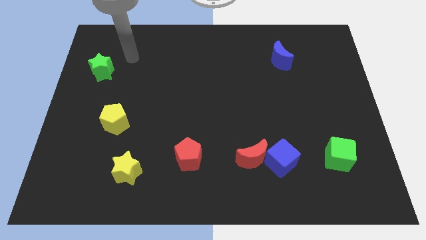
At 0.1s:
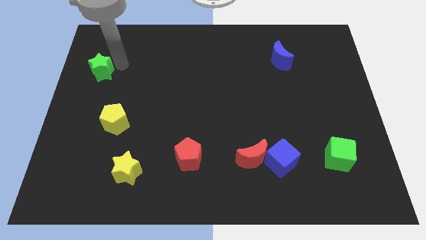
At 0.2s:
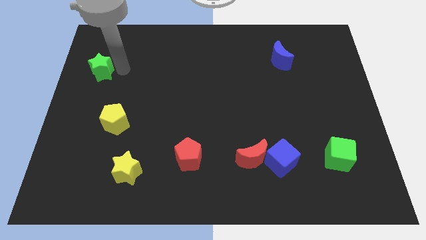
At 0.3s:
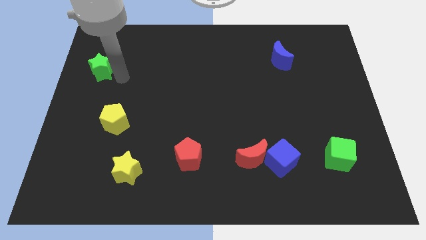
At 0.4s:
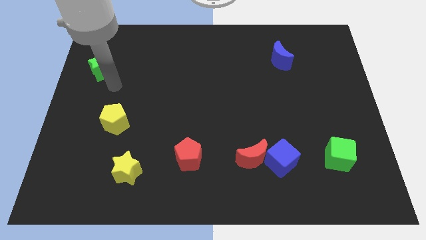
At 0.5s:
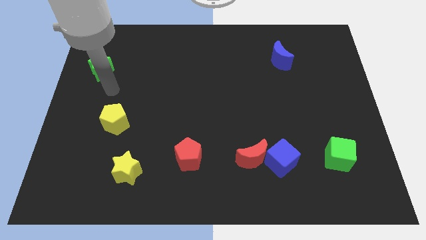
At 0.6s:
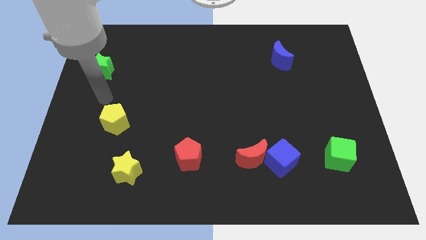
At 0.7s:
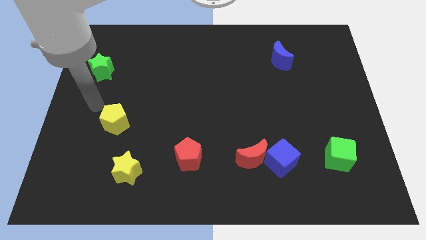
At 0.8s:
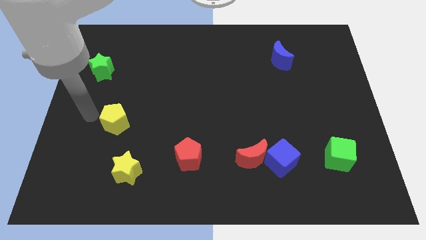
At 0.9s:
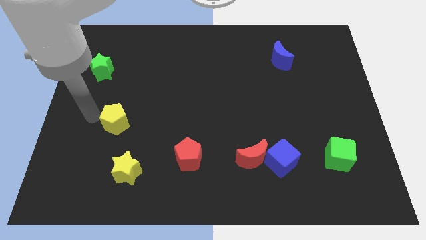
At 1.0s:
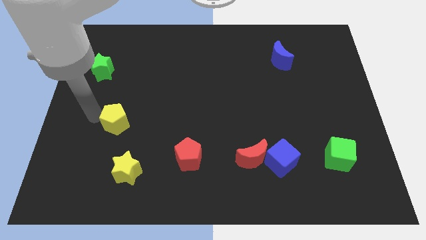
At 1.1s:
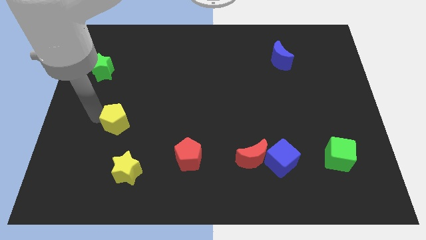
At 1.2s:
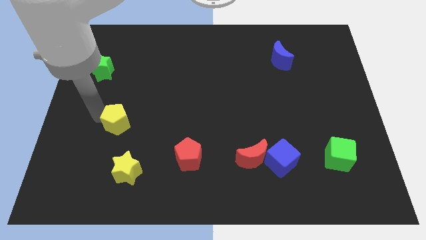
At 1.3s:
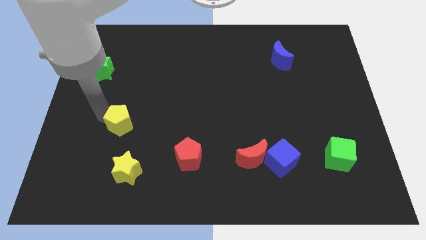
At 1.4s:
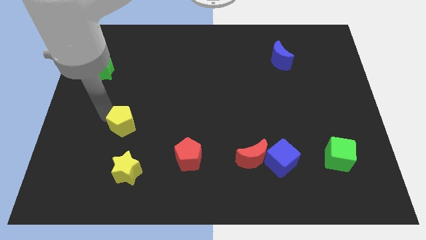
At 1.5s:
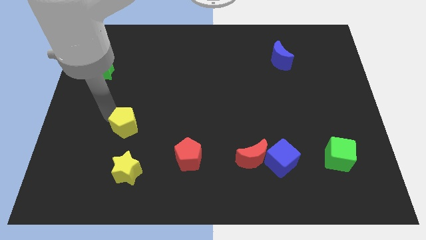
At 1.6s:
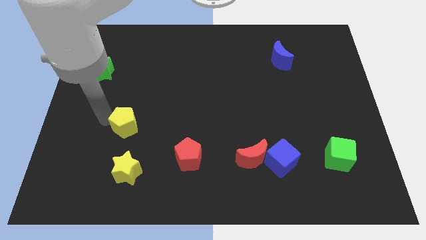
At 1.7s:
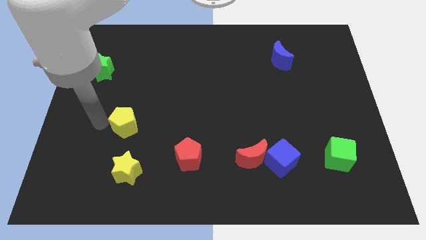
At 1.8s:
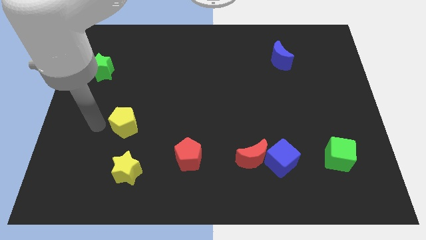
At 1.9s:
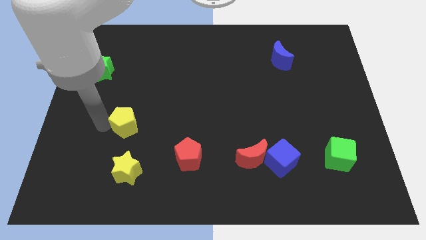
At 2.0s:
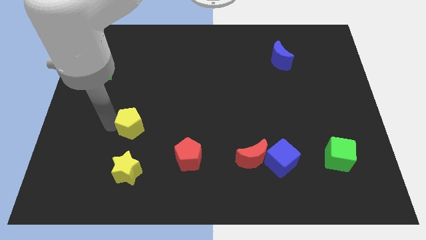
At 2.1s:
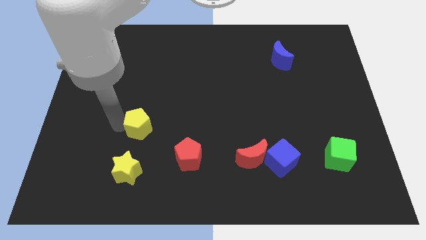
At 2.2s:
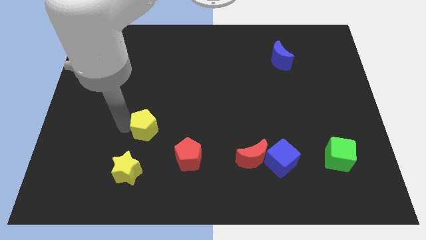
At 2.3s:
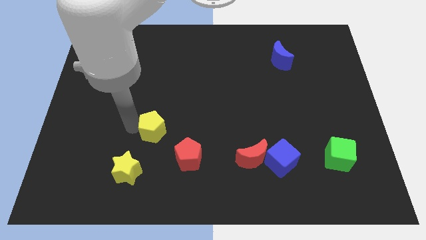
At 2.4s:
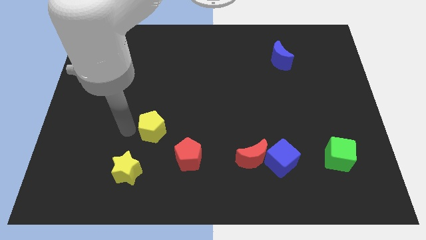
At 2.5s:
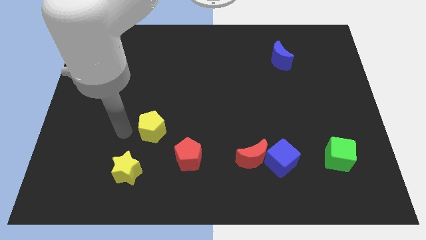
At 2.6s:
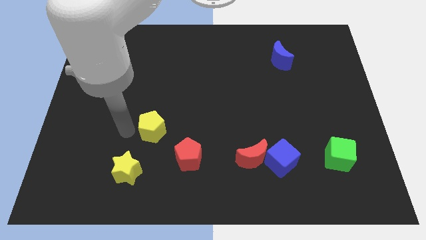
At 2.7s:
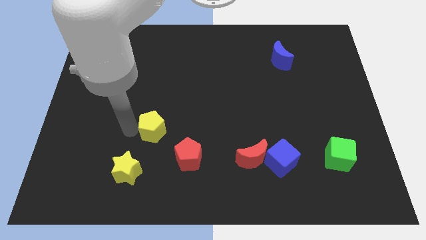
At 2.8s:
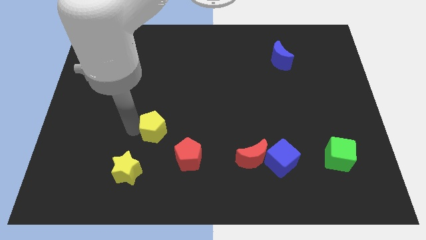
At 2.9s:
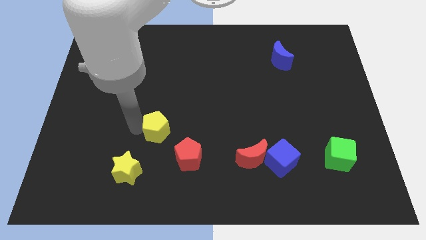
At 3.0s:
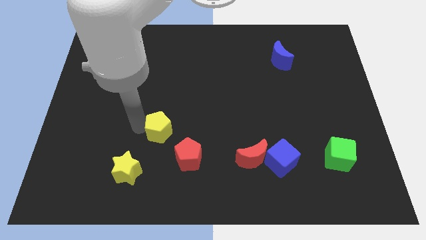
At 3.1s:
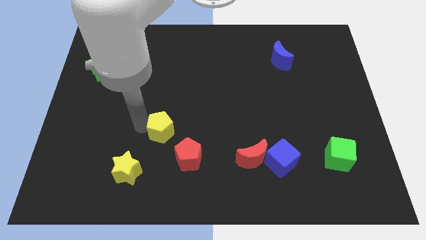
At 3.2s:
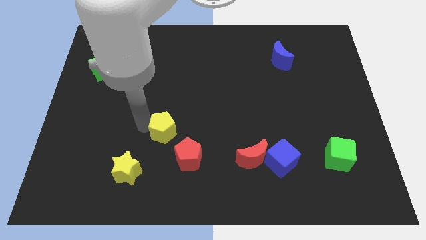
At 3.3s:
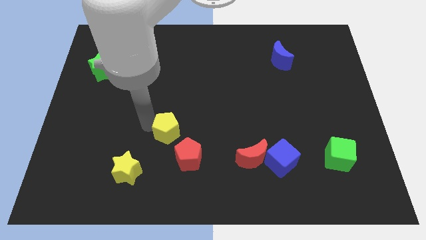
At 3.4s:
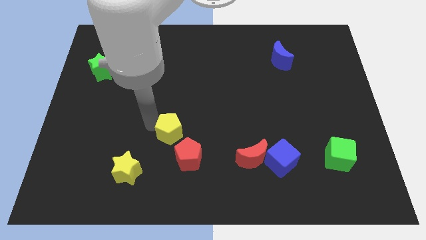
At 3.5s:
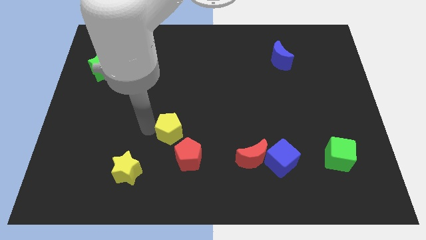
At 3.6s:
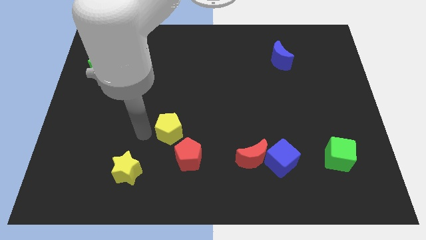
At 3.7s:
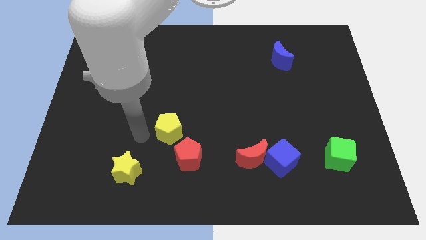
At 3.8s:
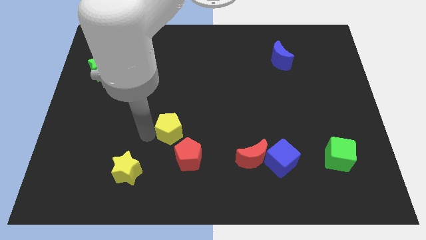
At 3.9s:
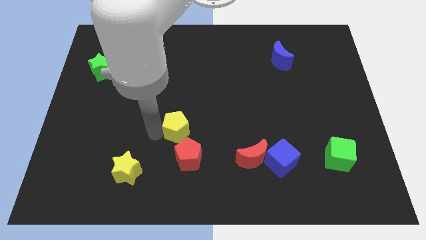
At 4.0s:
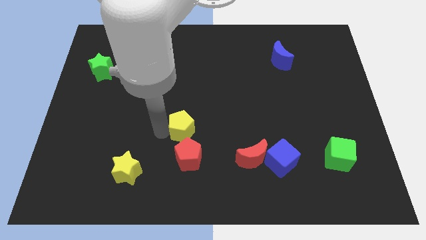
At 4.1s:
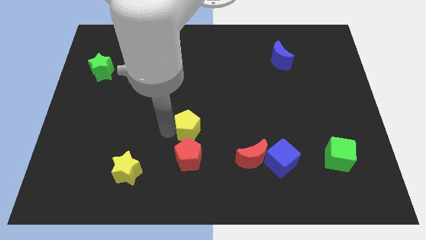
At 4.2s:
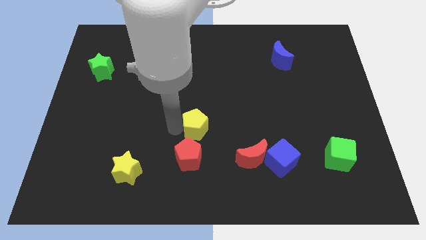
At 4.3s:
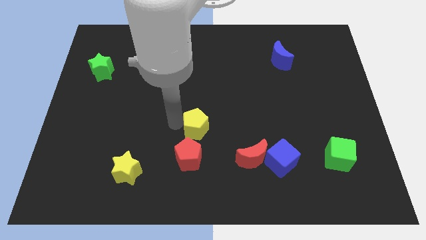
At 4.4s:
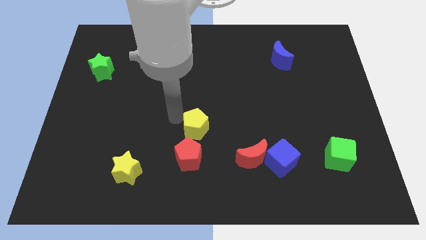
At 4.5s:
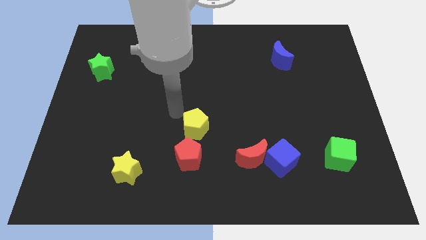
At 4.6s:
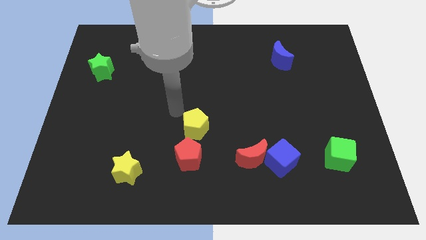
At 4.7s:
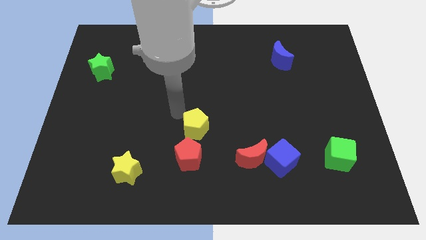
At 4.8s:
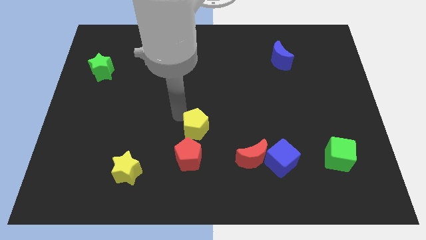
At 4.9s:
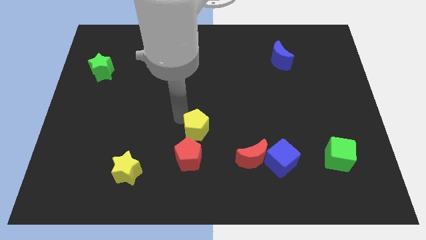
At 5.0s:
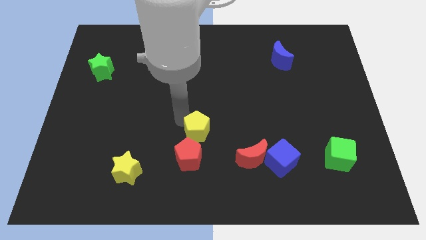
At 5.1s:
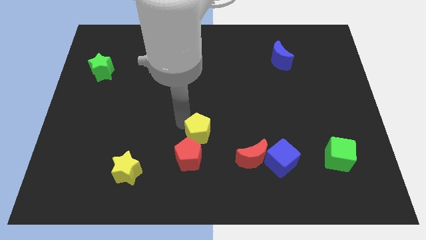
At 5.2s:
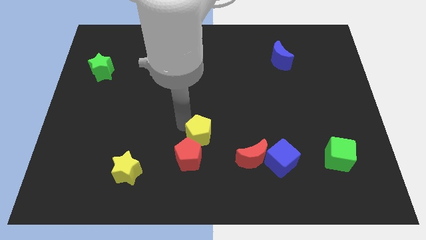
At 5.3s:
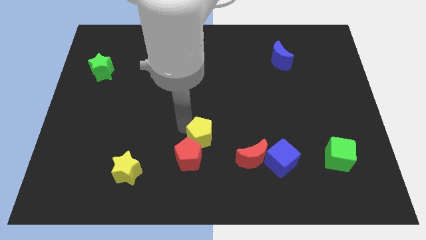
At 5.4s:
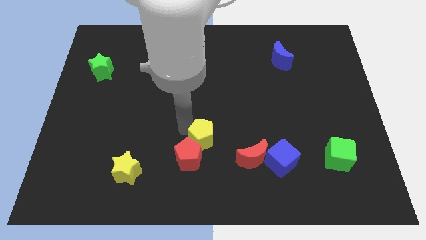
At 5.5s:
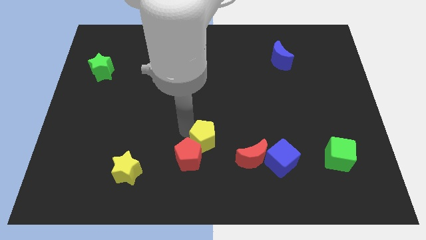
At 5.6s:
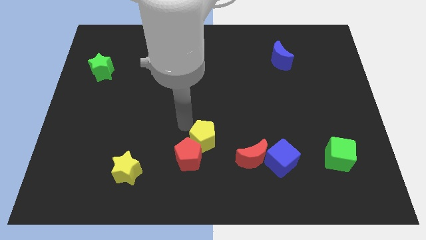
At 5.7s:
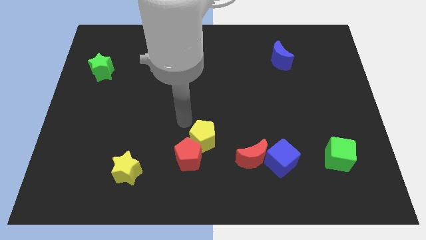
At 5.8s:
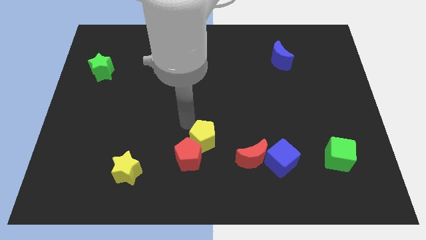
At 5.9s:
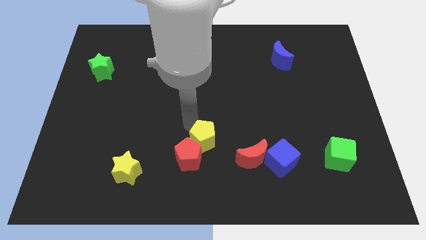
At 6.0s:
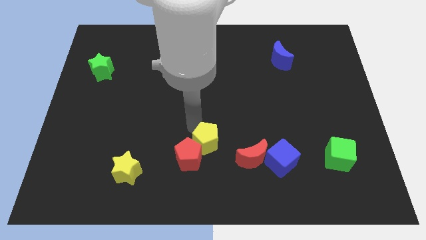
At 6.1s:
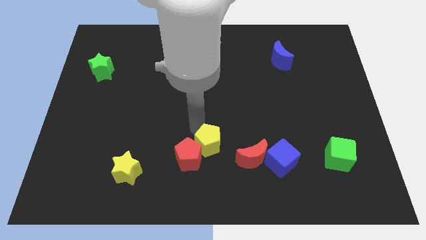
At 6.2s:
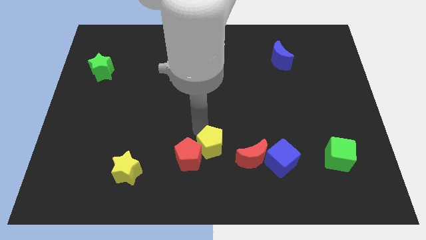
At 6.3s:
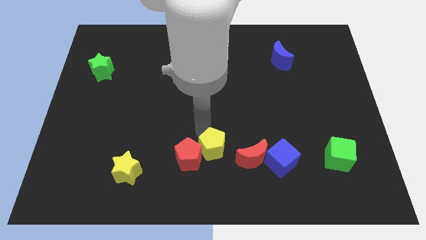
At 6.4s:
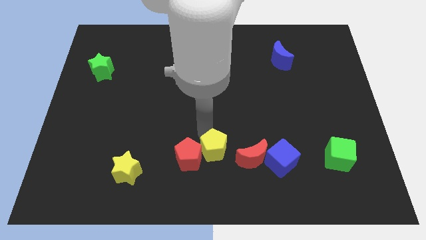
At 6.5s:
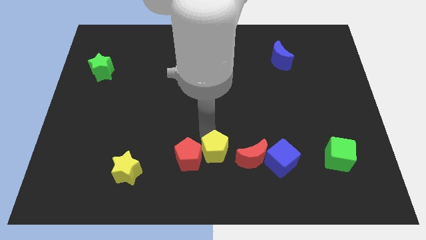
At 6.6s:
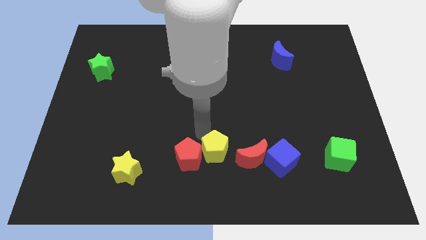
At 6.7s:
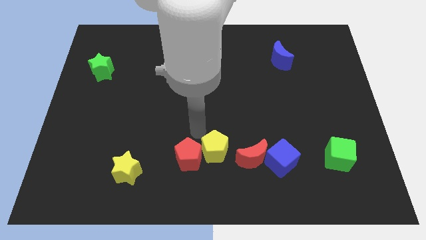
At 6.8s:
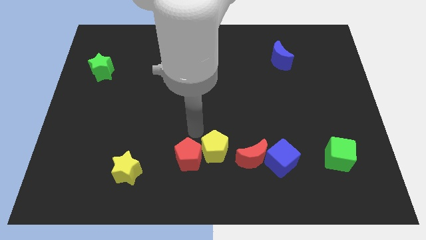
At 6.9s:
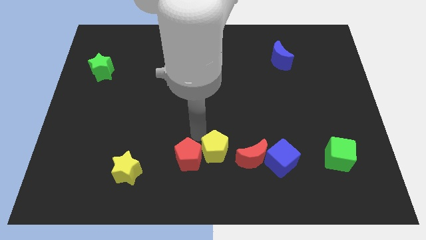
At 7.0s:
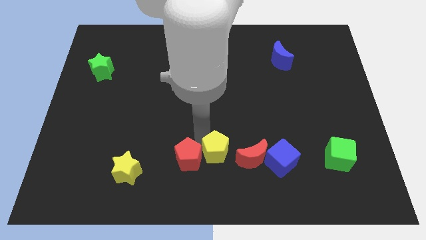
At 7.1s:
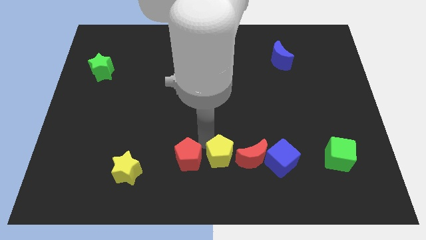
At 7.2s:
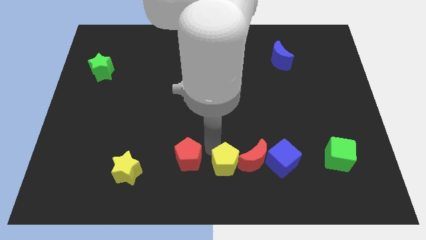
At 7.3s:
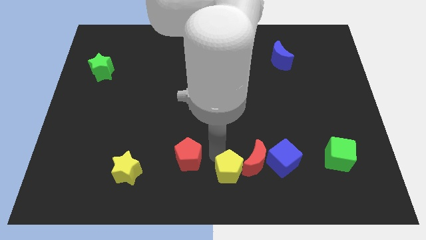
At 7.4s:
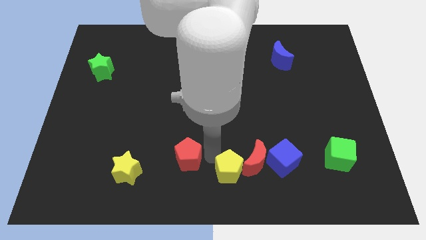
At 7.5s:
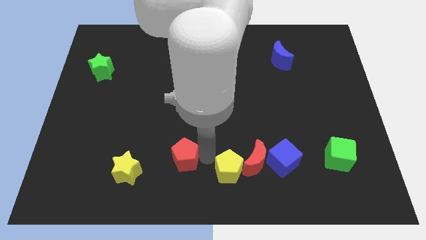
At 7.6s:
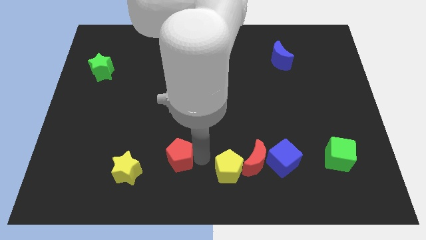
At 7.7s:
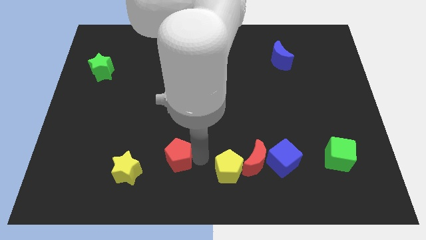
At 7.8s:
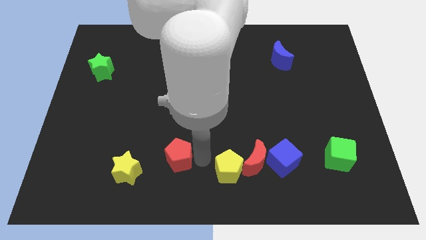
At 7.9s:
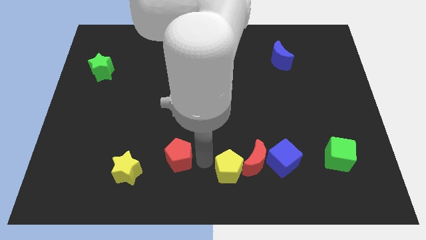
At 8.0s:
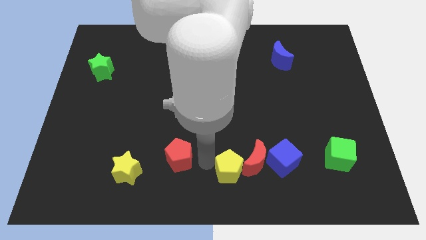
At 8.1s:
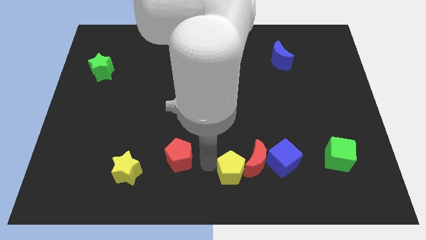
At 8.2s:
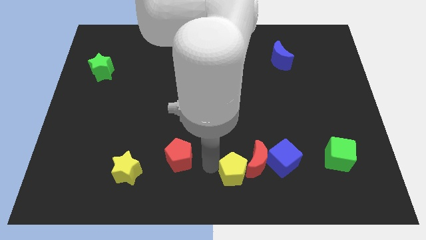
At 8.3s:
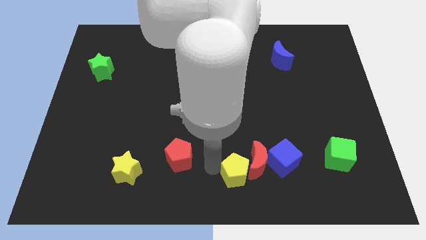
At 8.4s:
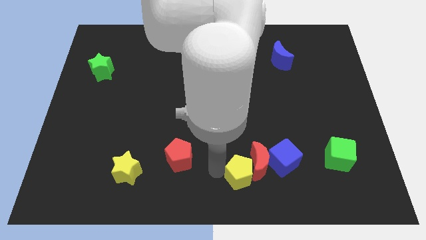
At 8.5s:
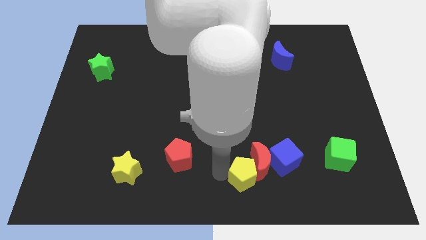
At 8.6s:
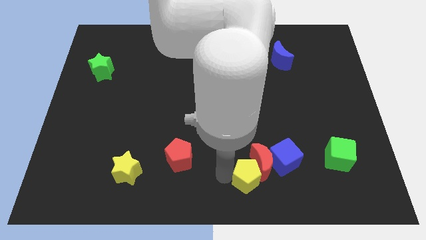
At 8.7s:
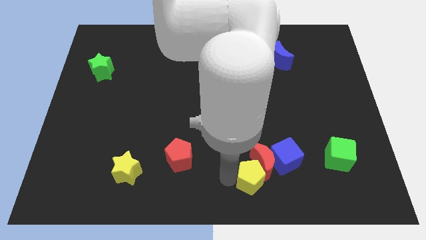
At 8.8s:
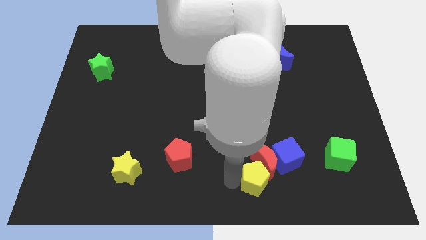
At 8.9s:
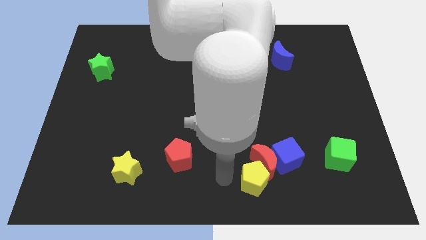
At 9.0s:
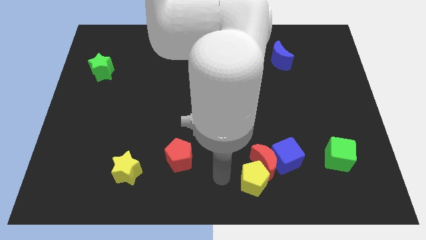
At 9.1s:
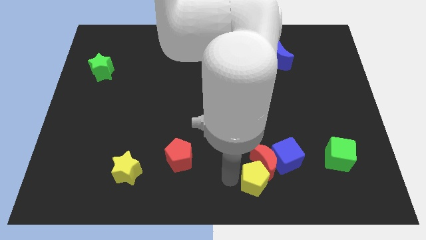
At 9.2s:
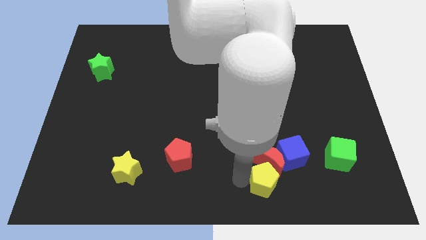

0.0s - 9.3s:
push the yellow pentagon diagonally down and to the right of the red moon
